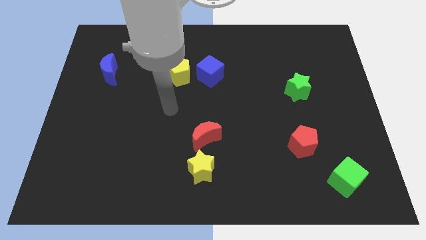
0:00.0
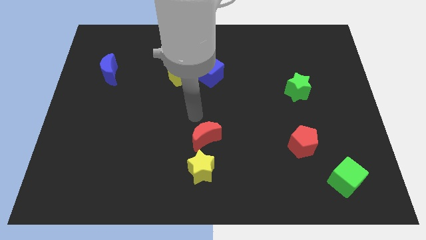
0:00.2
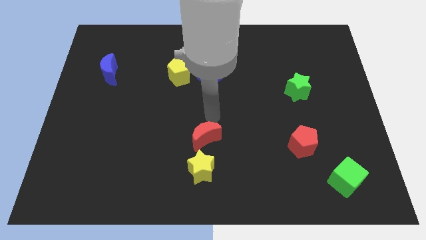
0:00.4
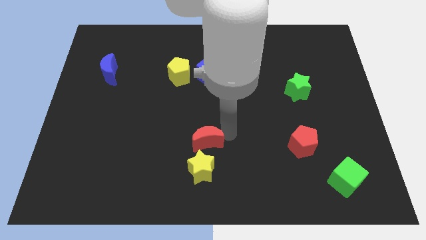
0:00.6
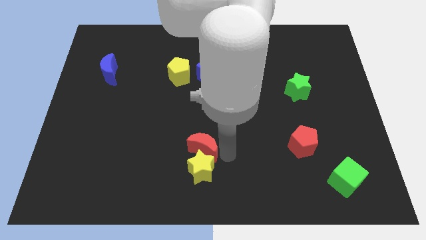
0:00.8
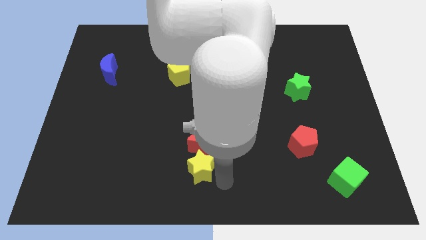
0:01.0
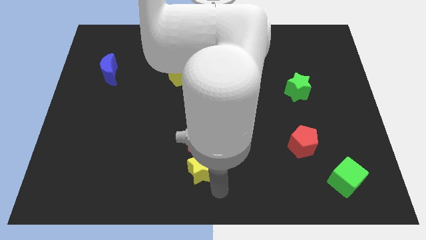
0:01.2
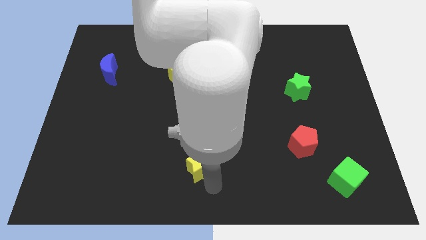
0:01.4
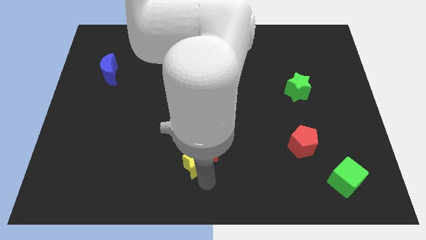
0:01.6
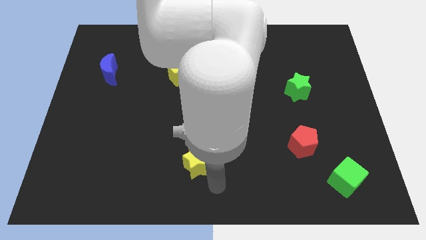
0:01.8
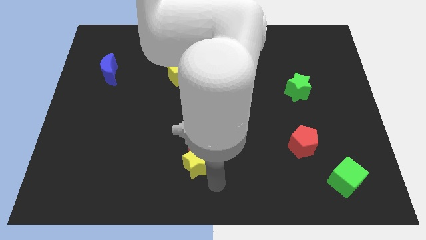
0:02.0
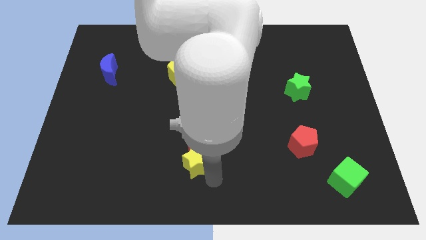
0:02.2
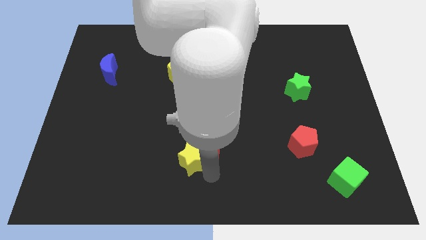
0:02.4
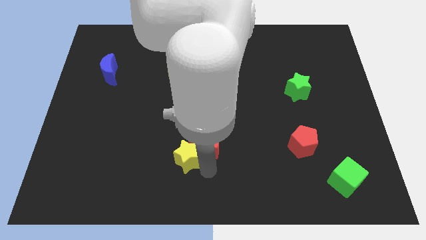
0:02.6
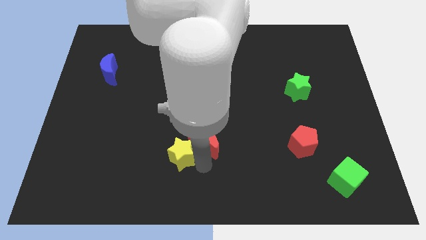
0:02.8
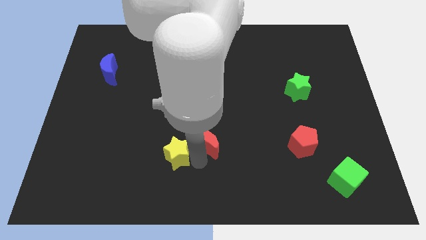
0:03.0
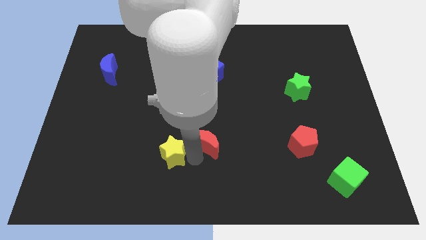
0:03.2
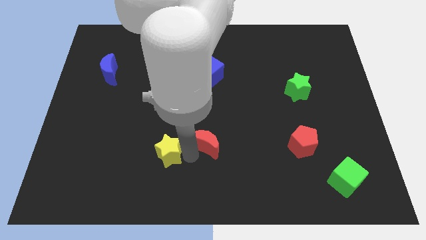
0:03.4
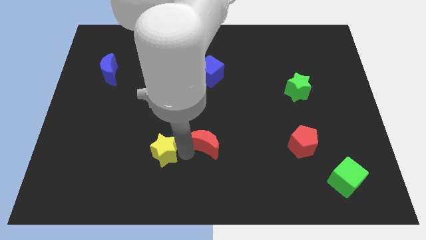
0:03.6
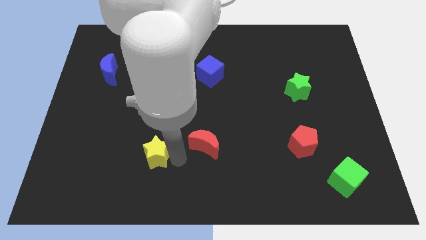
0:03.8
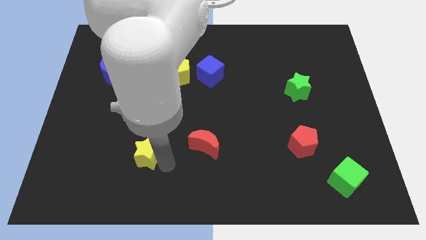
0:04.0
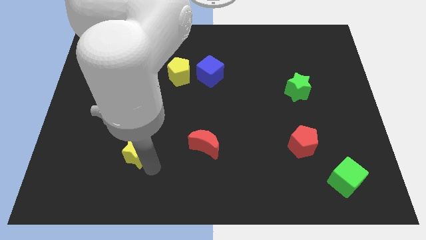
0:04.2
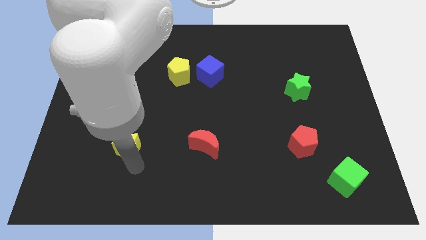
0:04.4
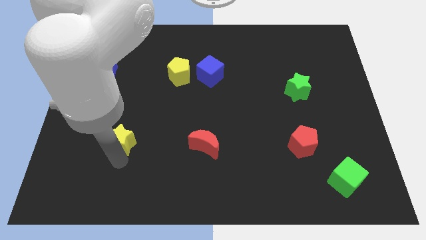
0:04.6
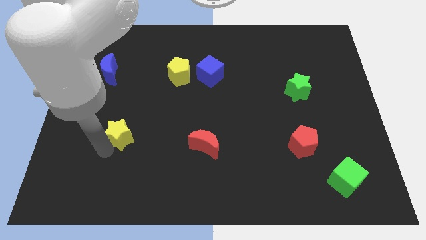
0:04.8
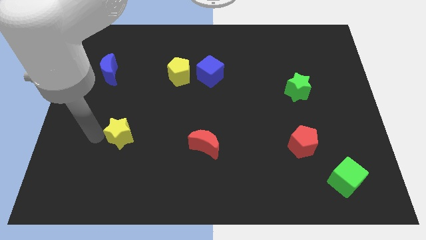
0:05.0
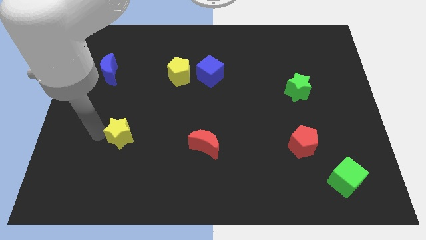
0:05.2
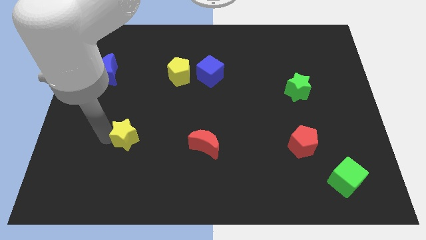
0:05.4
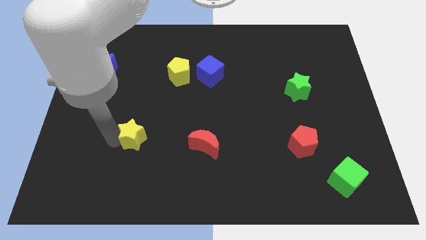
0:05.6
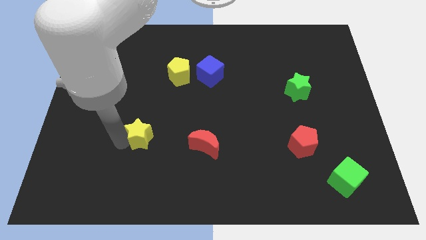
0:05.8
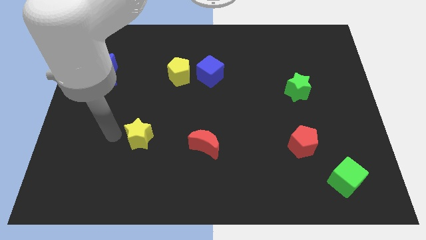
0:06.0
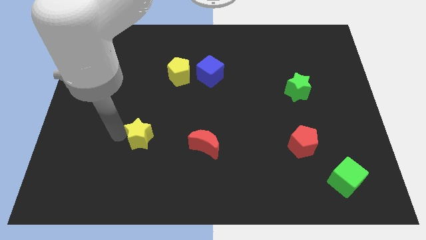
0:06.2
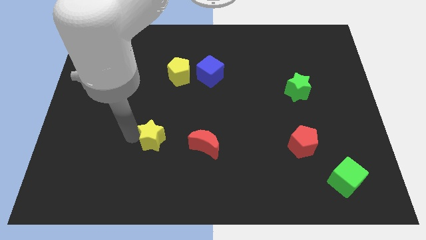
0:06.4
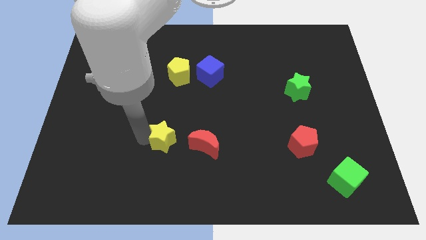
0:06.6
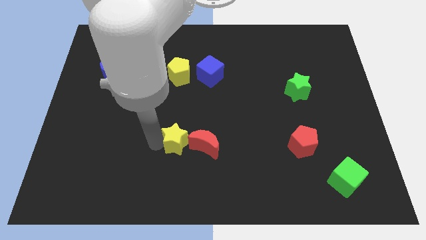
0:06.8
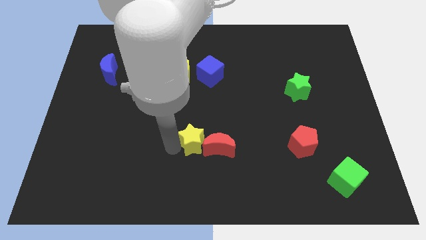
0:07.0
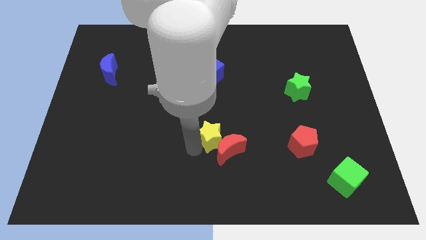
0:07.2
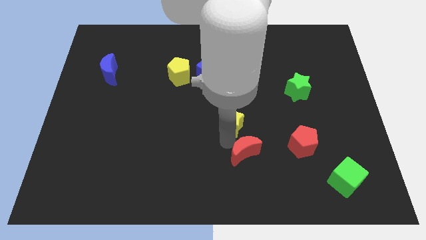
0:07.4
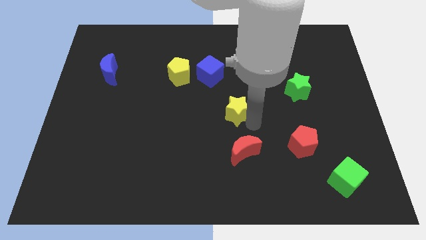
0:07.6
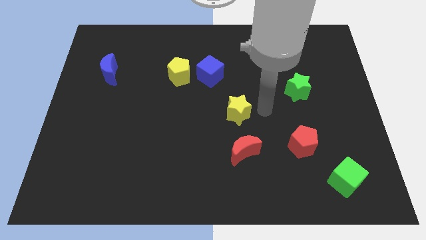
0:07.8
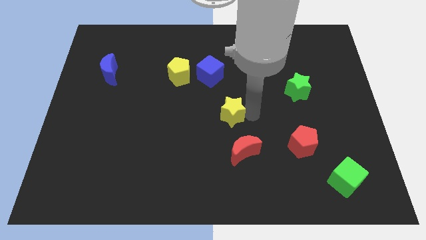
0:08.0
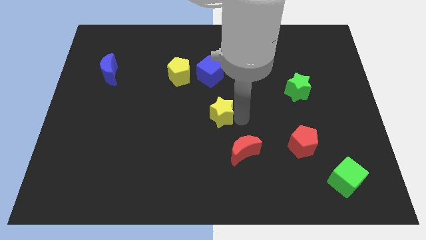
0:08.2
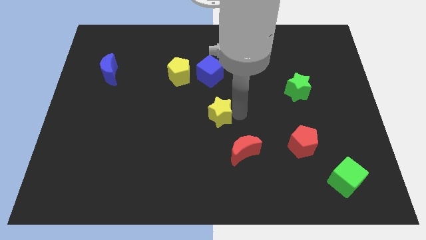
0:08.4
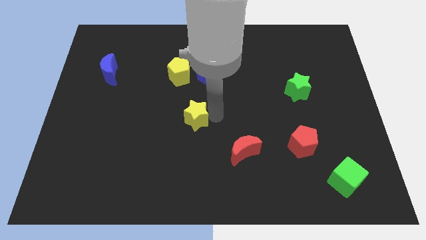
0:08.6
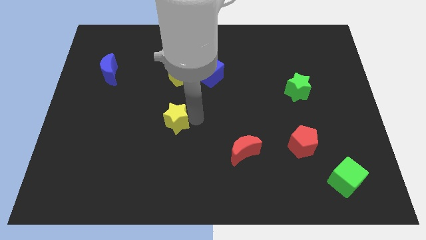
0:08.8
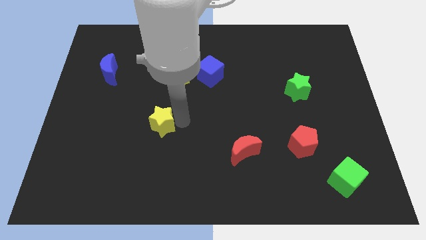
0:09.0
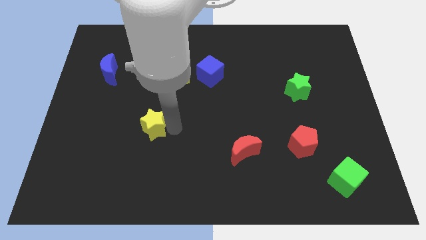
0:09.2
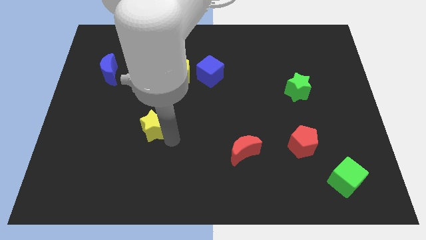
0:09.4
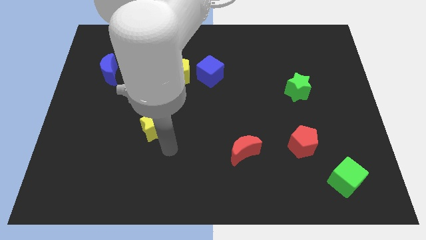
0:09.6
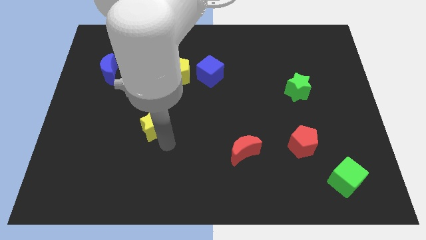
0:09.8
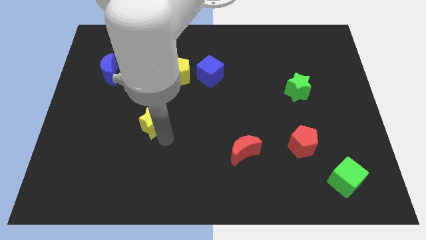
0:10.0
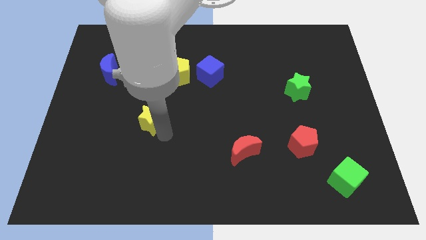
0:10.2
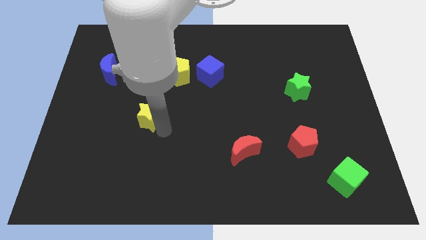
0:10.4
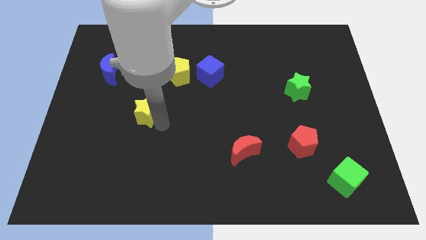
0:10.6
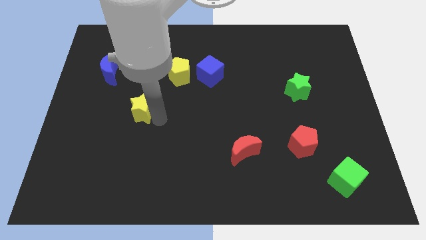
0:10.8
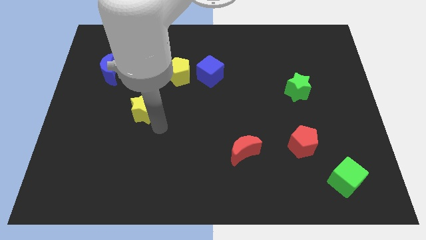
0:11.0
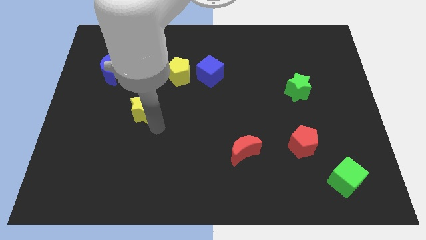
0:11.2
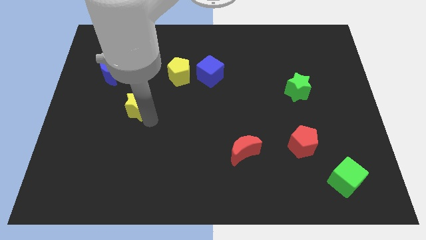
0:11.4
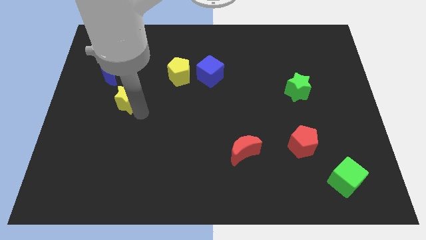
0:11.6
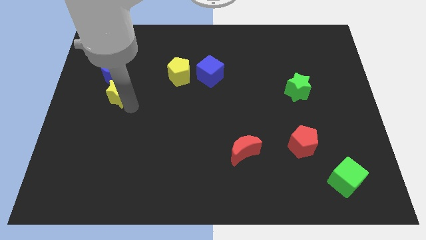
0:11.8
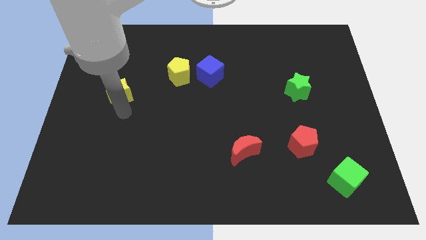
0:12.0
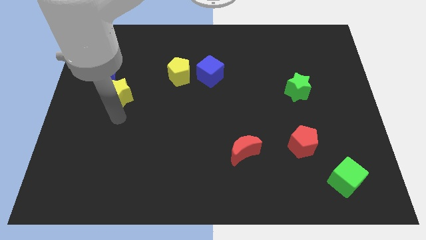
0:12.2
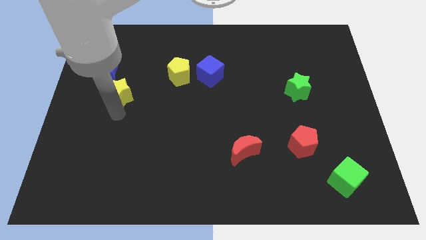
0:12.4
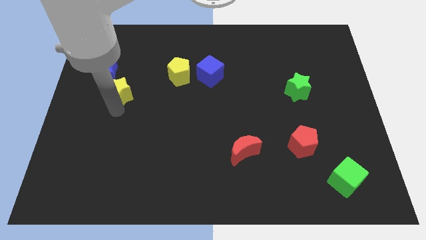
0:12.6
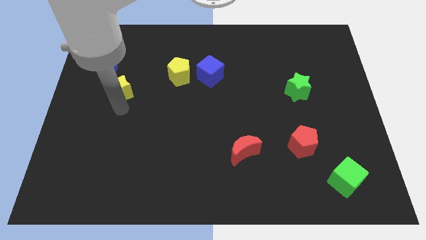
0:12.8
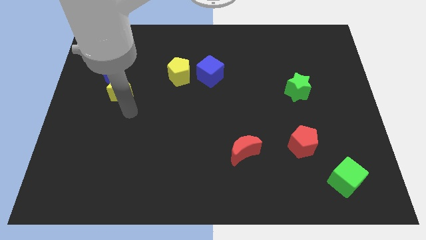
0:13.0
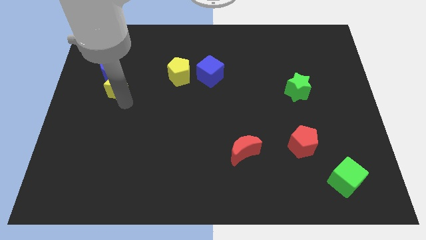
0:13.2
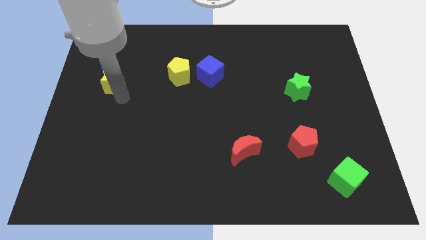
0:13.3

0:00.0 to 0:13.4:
push the yellow star next to the blue moon

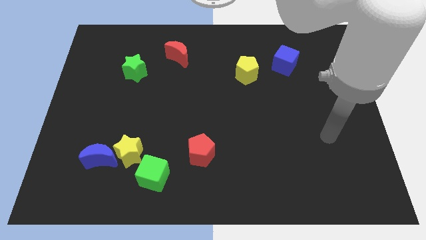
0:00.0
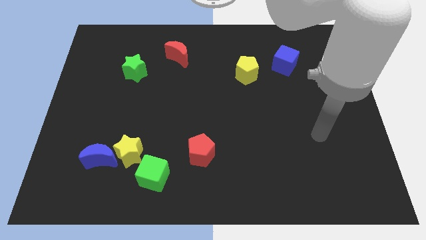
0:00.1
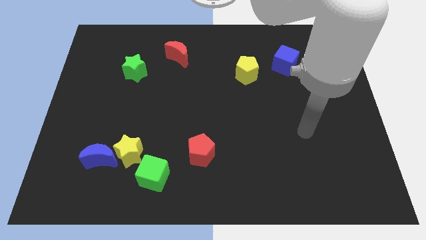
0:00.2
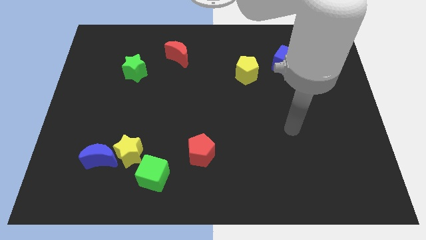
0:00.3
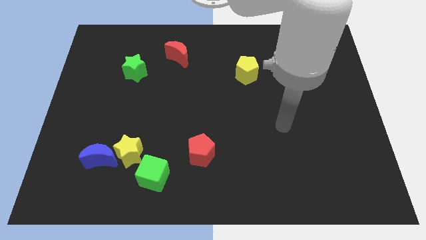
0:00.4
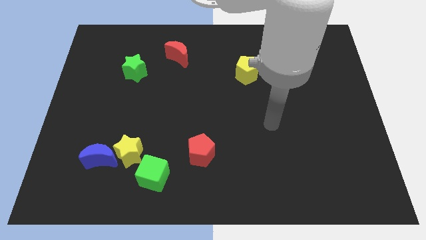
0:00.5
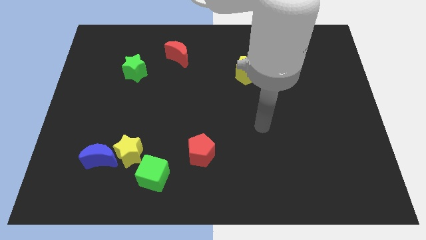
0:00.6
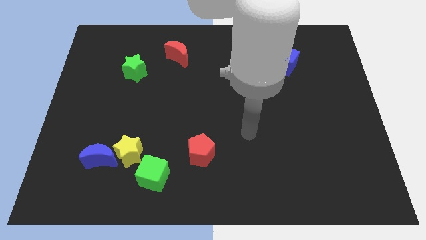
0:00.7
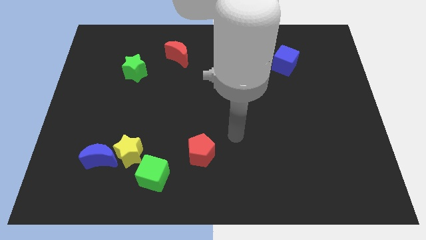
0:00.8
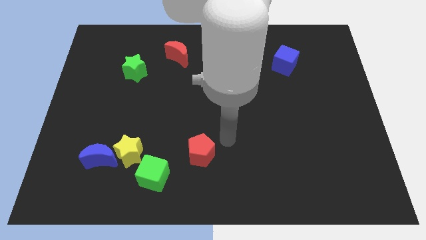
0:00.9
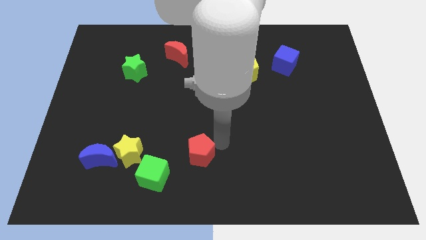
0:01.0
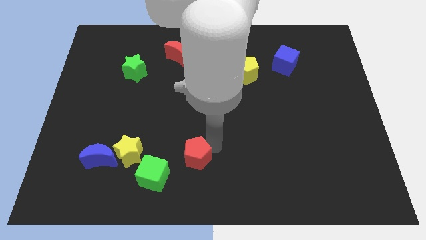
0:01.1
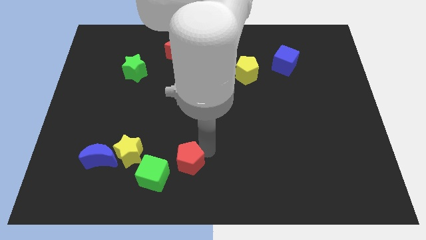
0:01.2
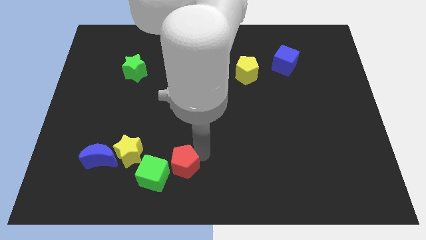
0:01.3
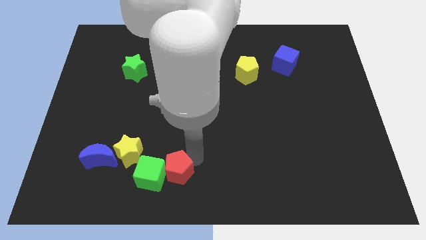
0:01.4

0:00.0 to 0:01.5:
move the red pentagon towards the green cube
